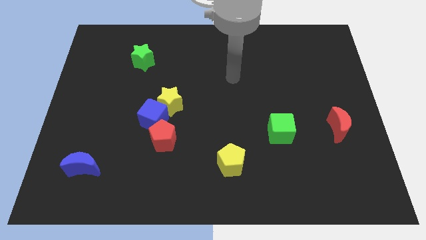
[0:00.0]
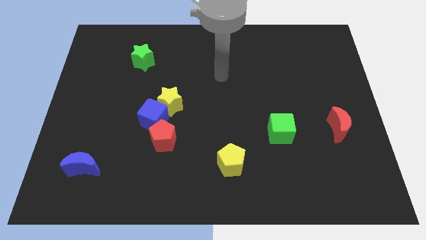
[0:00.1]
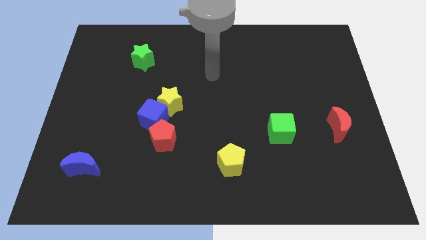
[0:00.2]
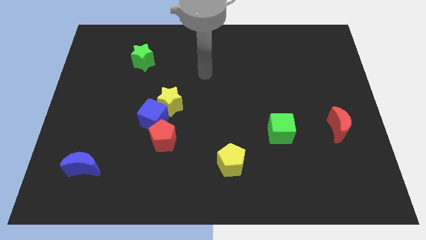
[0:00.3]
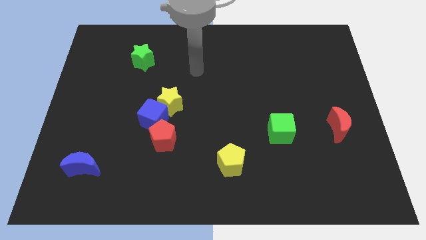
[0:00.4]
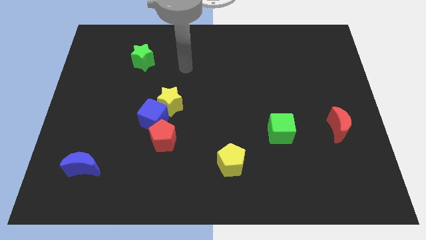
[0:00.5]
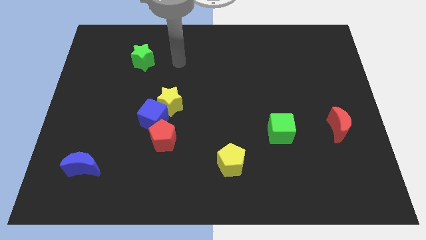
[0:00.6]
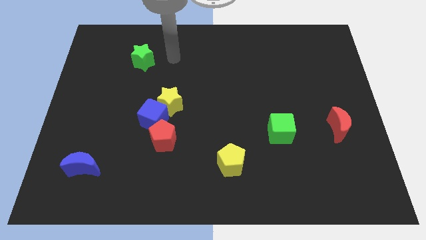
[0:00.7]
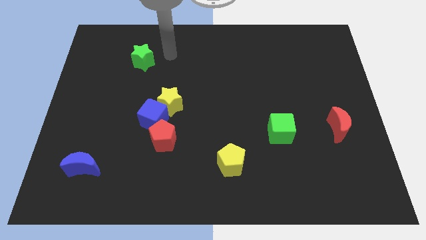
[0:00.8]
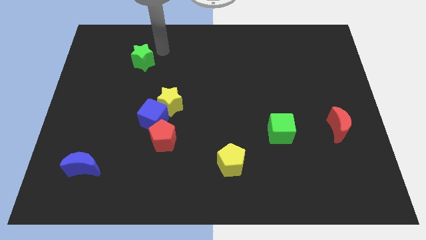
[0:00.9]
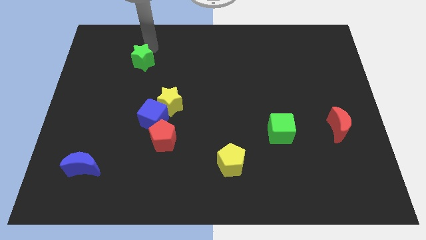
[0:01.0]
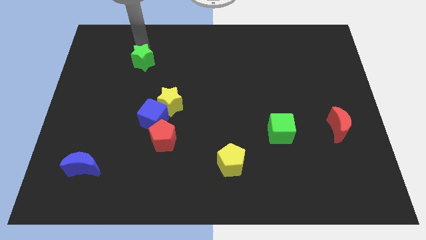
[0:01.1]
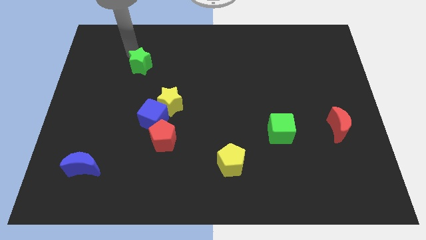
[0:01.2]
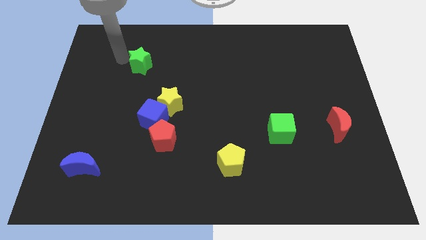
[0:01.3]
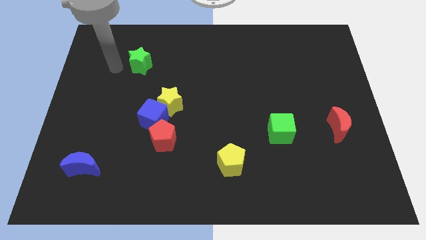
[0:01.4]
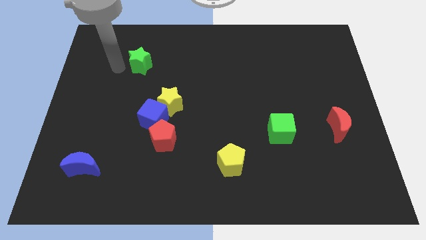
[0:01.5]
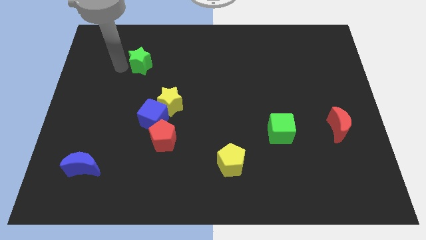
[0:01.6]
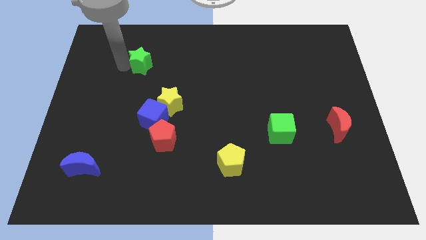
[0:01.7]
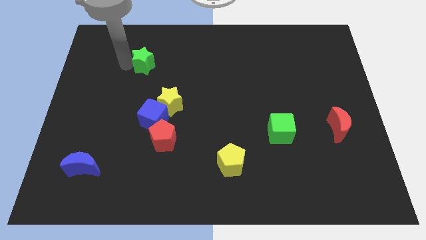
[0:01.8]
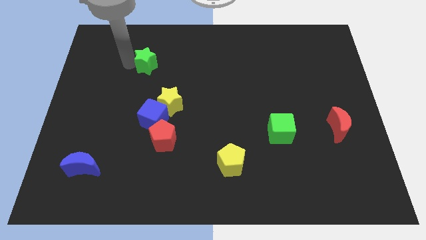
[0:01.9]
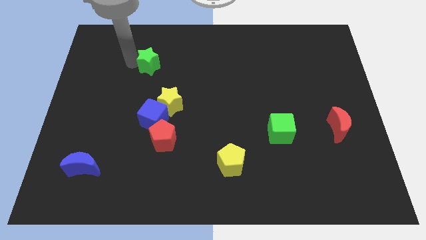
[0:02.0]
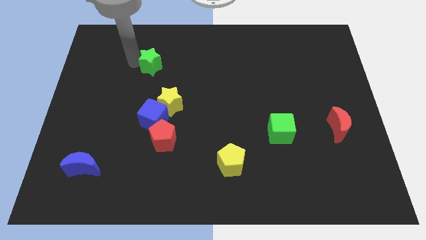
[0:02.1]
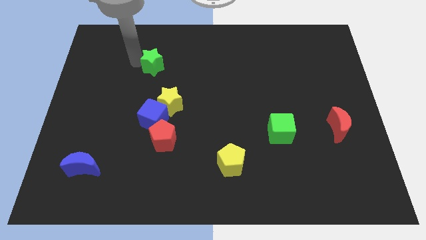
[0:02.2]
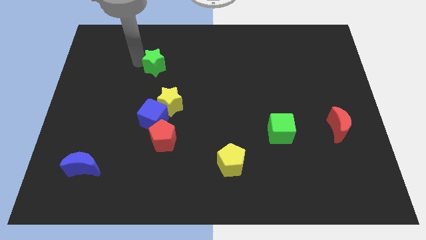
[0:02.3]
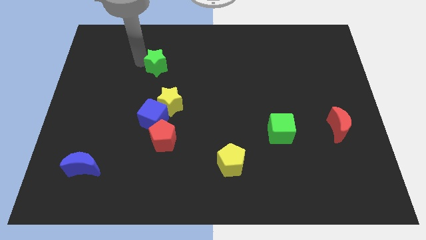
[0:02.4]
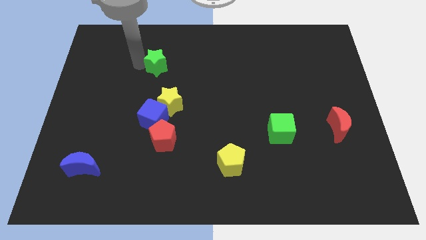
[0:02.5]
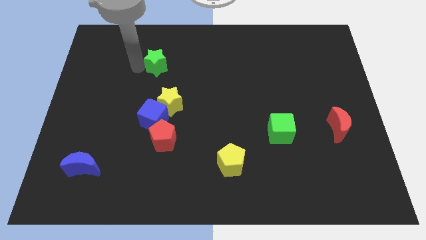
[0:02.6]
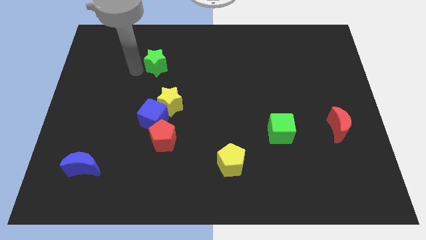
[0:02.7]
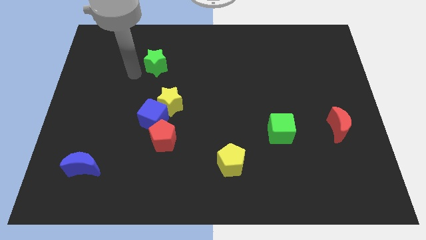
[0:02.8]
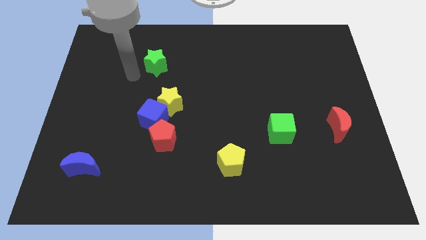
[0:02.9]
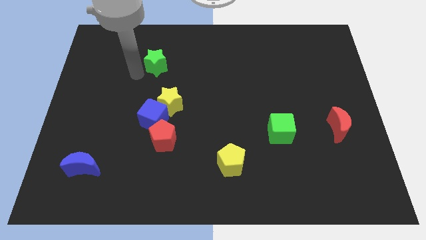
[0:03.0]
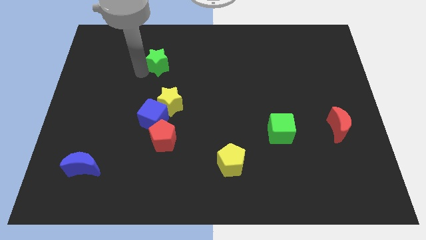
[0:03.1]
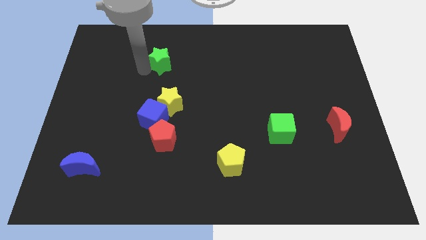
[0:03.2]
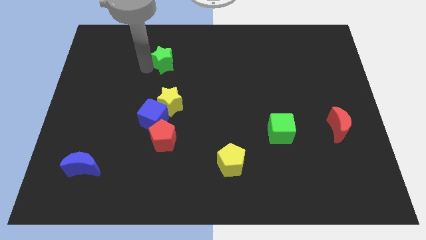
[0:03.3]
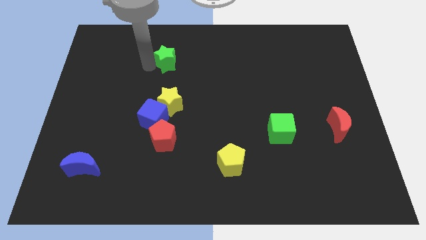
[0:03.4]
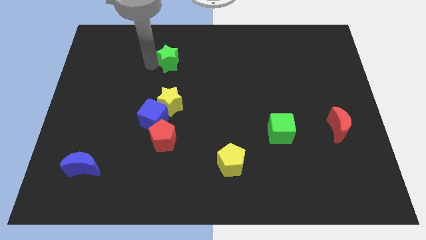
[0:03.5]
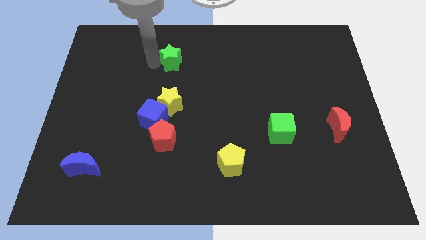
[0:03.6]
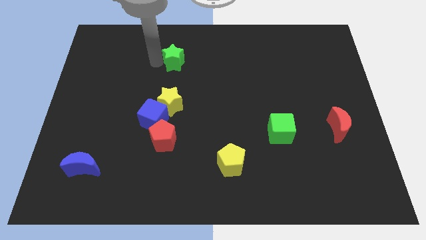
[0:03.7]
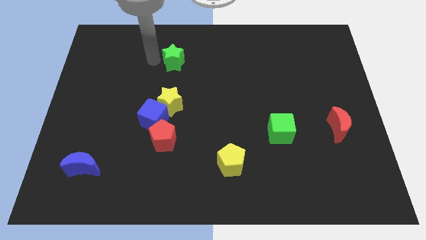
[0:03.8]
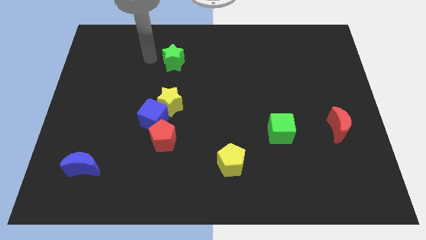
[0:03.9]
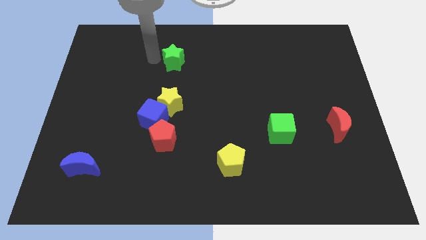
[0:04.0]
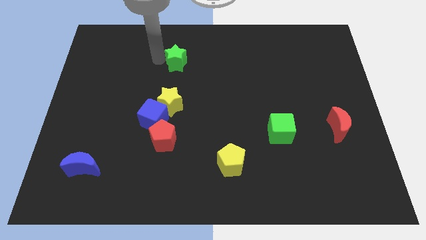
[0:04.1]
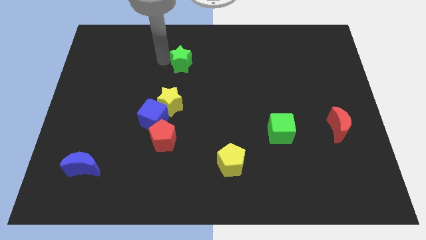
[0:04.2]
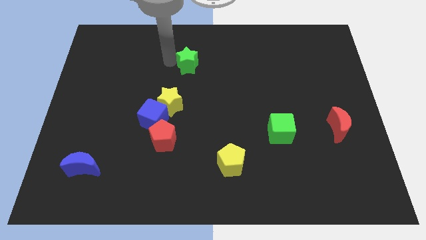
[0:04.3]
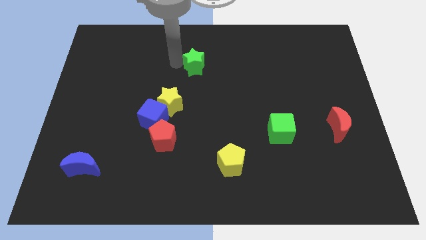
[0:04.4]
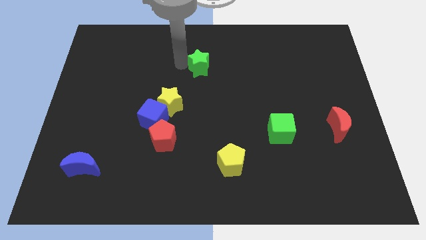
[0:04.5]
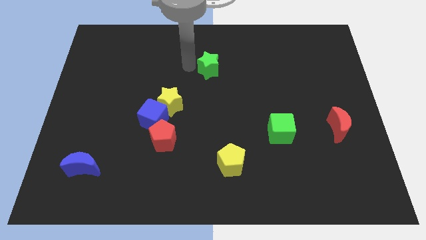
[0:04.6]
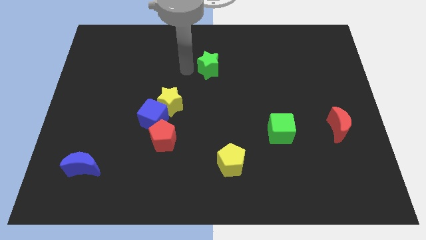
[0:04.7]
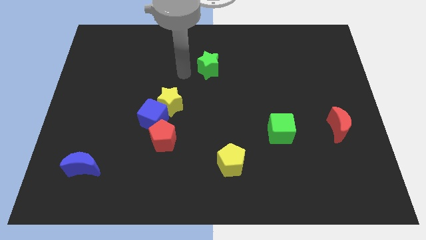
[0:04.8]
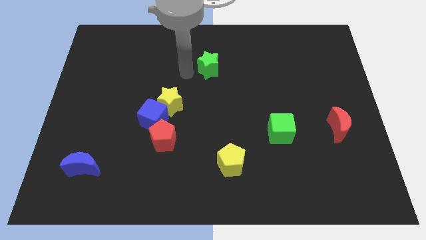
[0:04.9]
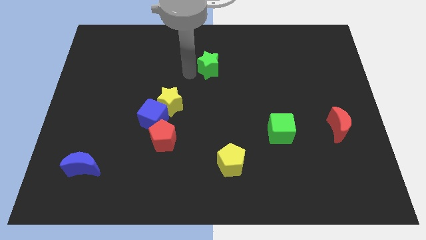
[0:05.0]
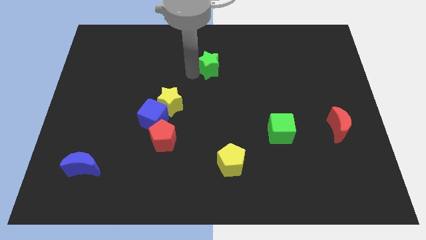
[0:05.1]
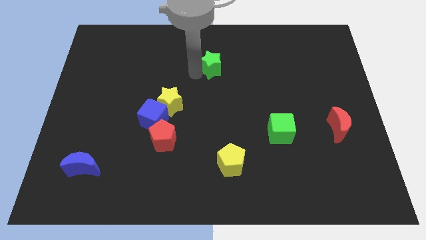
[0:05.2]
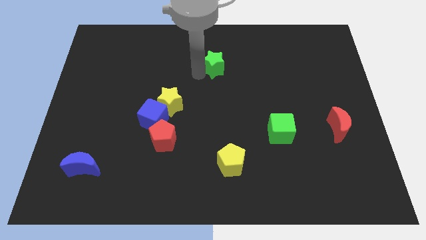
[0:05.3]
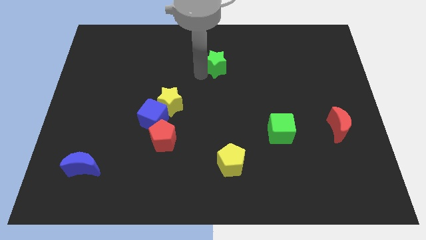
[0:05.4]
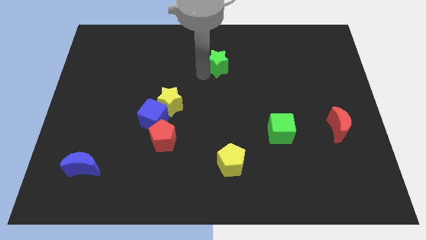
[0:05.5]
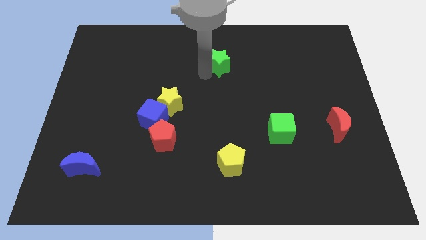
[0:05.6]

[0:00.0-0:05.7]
slide the green star to the right

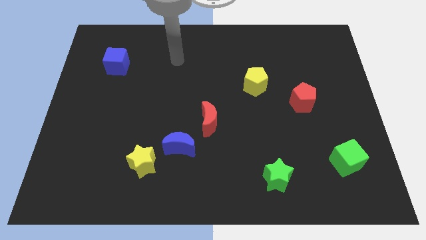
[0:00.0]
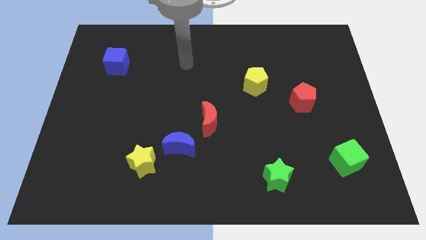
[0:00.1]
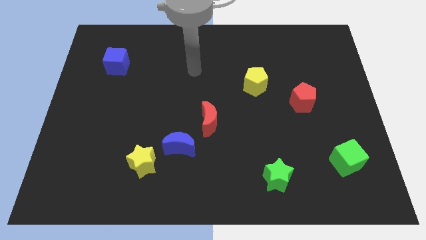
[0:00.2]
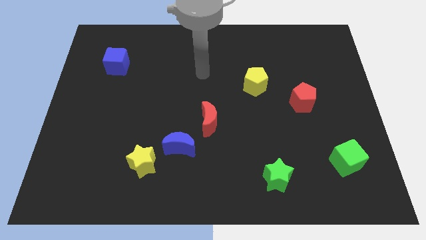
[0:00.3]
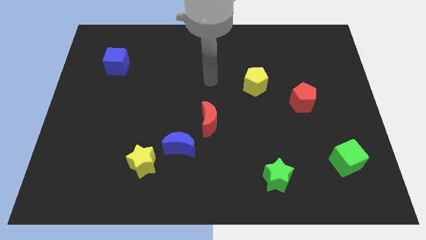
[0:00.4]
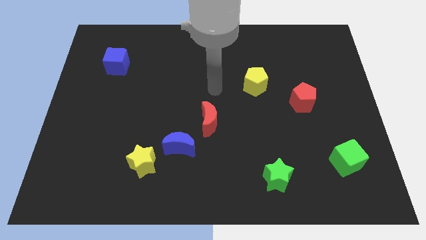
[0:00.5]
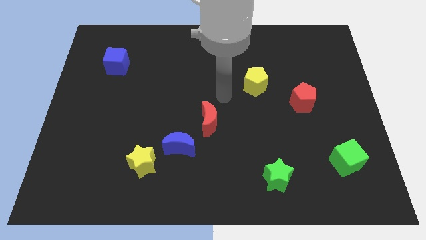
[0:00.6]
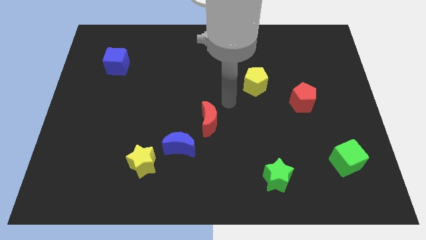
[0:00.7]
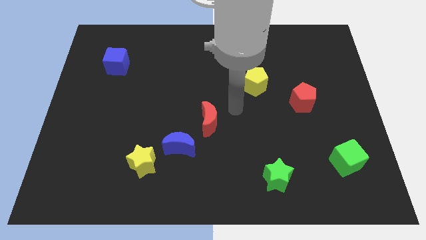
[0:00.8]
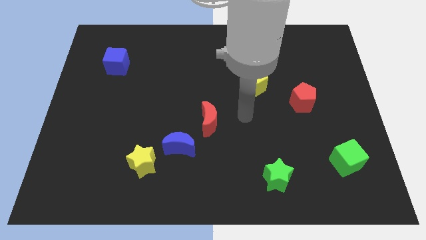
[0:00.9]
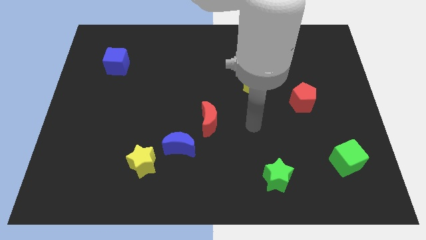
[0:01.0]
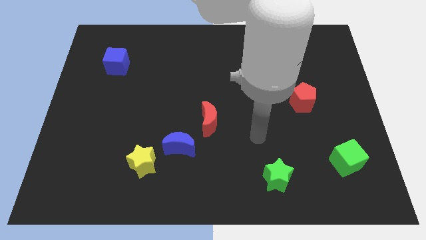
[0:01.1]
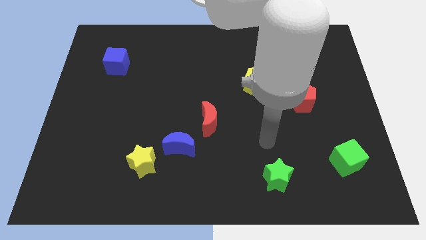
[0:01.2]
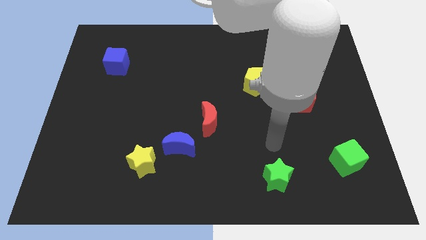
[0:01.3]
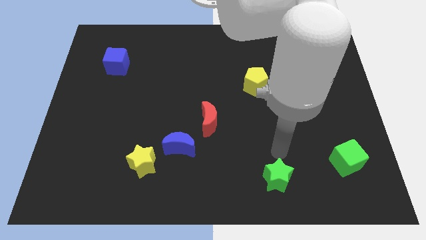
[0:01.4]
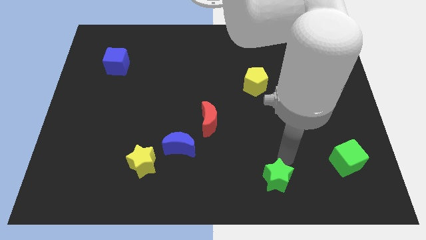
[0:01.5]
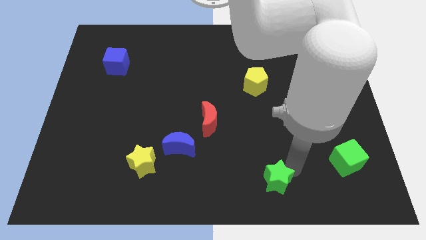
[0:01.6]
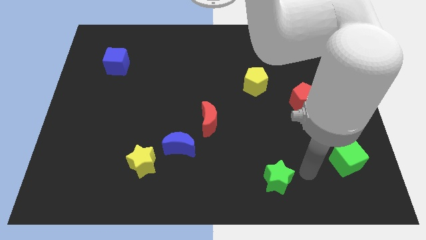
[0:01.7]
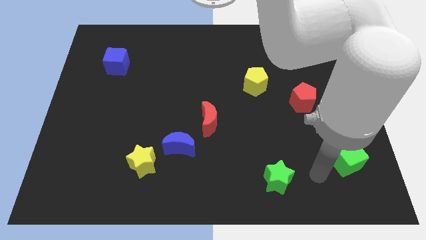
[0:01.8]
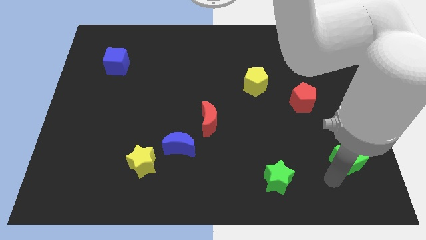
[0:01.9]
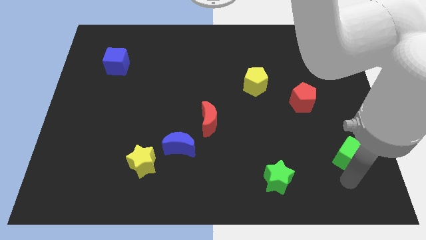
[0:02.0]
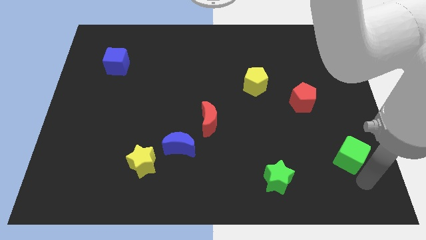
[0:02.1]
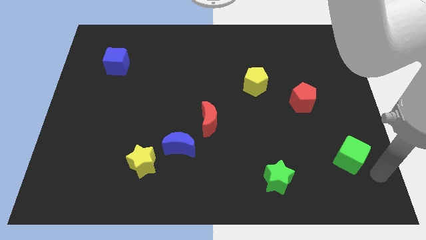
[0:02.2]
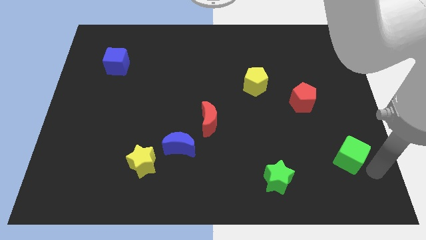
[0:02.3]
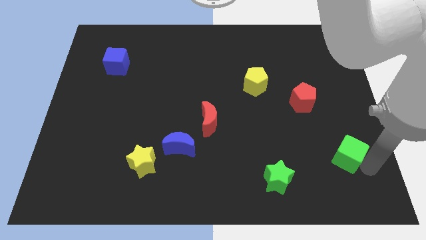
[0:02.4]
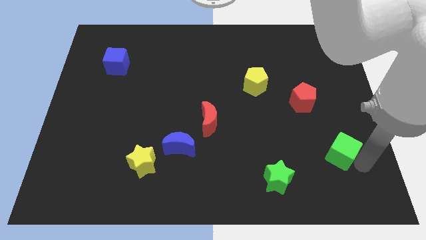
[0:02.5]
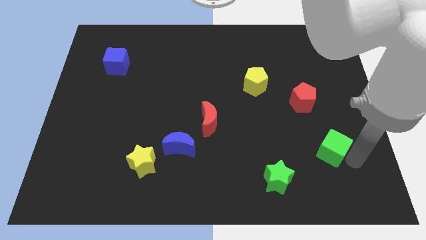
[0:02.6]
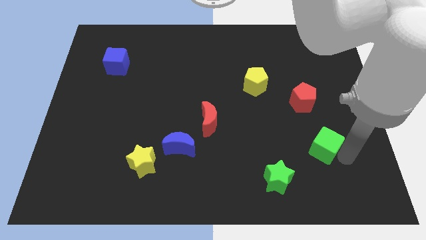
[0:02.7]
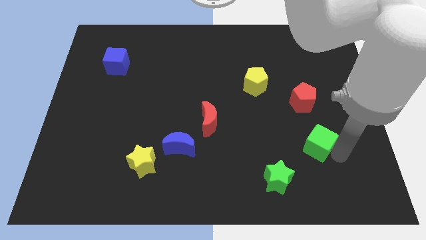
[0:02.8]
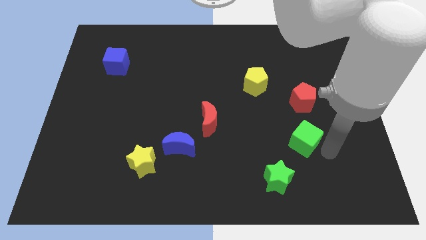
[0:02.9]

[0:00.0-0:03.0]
slightly move the green cube up and left
